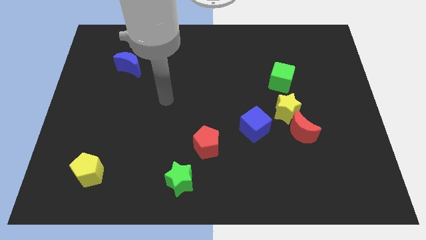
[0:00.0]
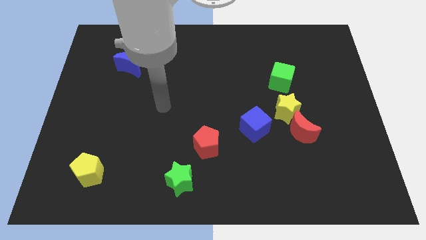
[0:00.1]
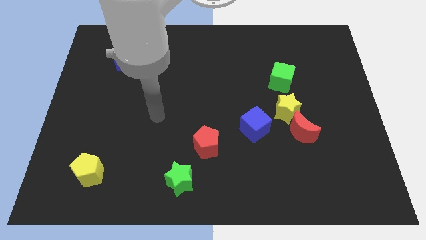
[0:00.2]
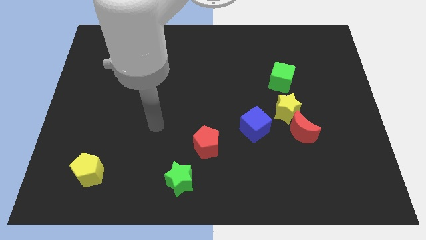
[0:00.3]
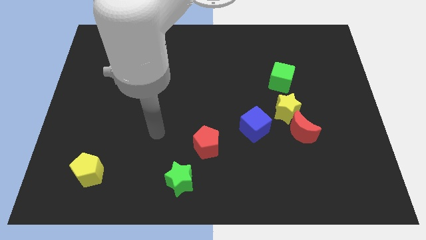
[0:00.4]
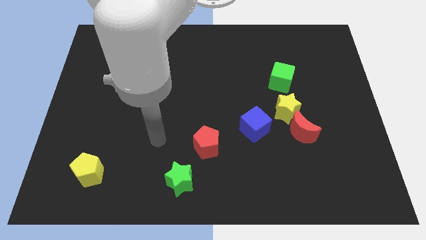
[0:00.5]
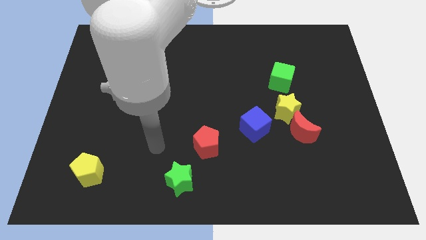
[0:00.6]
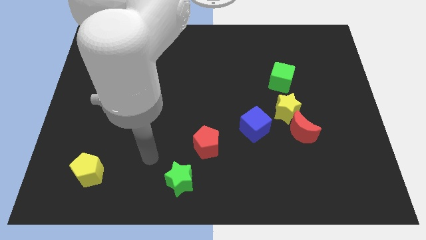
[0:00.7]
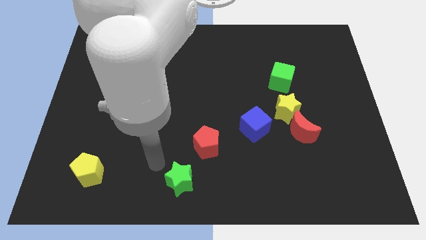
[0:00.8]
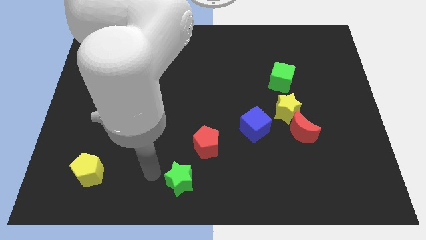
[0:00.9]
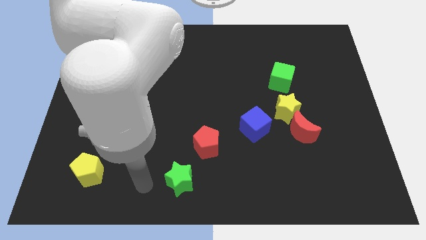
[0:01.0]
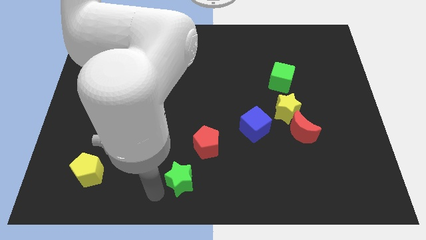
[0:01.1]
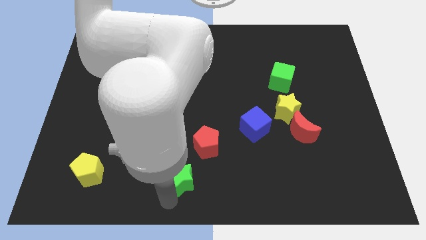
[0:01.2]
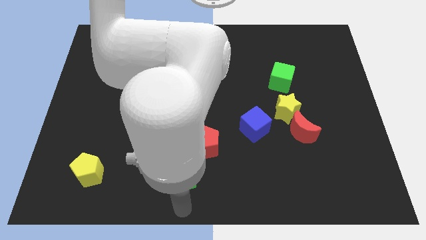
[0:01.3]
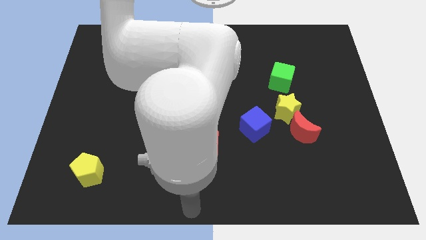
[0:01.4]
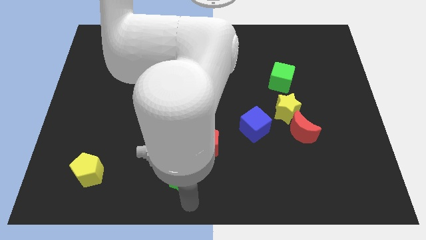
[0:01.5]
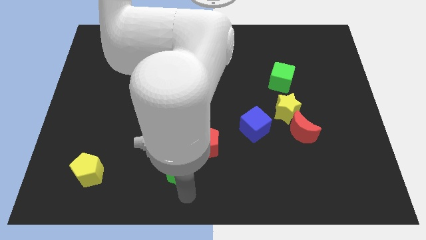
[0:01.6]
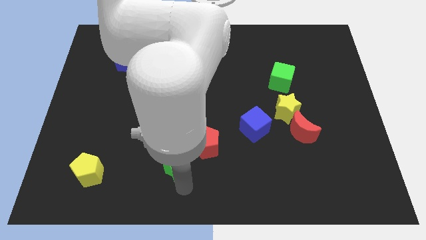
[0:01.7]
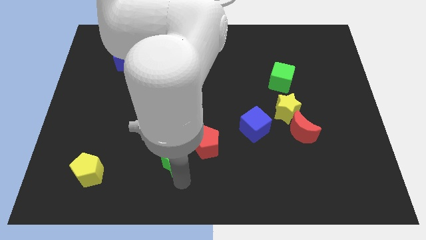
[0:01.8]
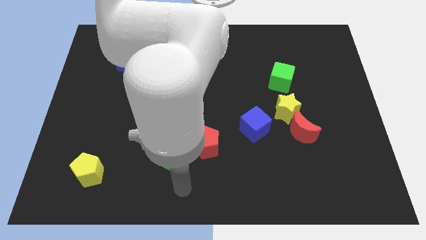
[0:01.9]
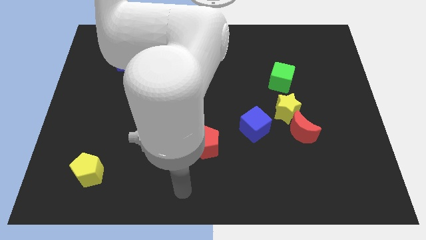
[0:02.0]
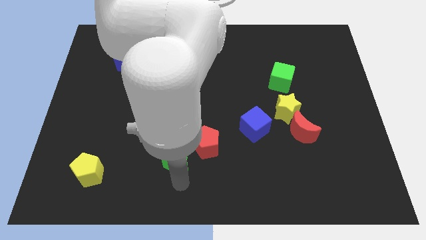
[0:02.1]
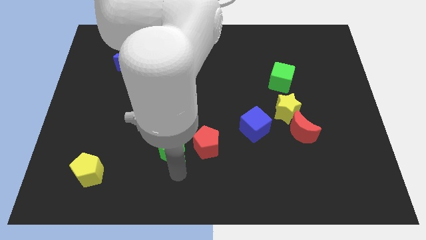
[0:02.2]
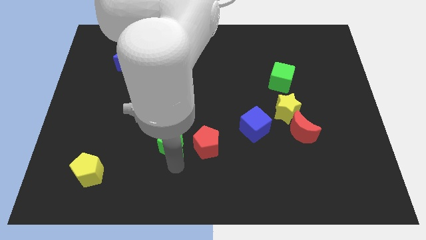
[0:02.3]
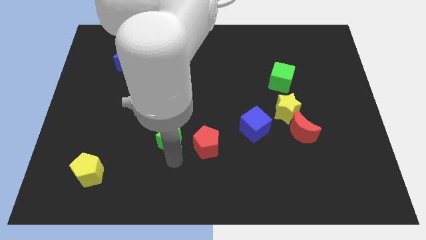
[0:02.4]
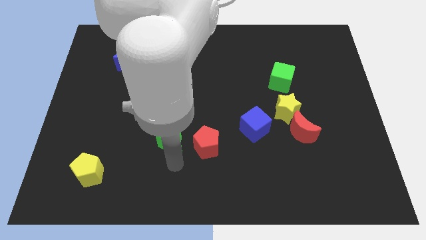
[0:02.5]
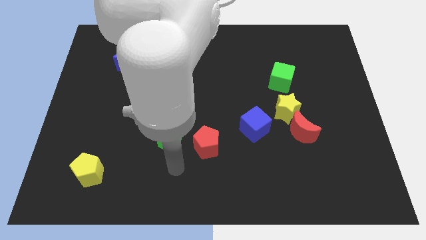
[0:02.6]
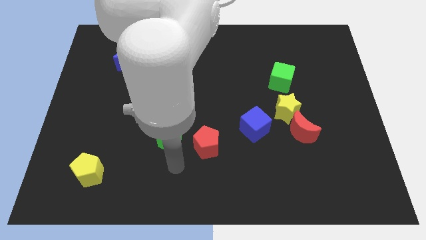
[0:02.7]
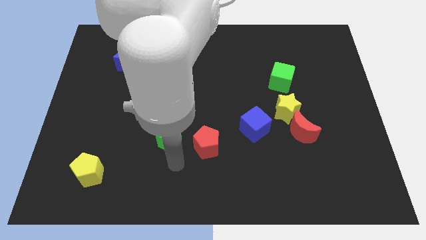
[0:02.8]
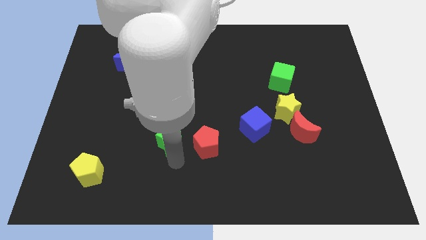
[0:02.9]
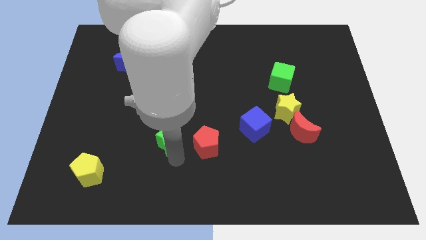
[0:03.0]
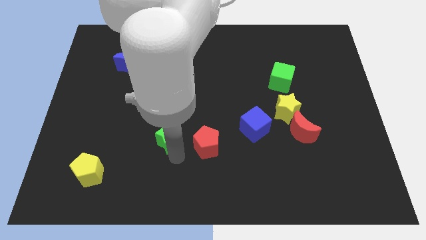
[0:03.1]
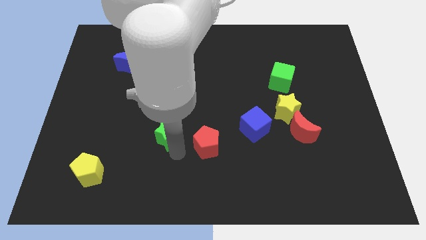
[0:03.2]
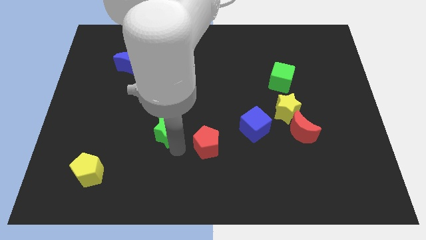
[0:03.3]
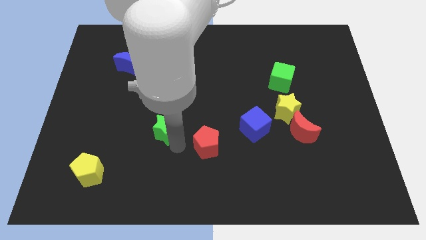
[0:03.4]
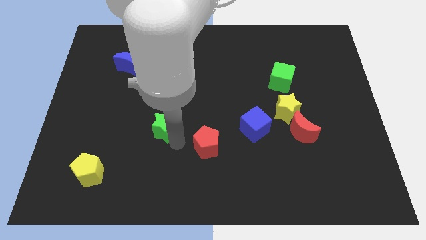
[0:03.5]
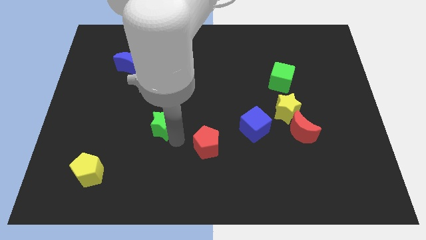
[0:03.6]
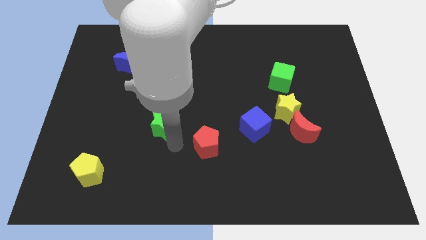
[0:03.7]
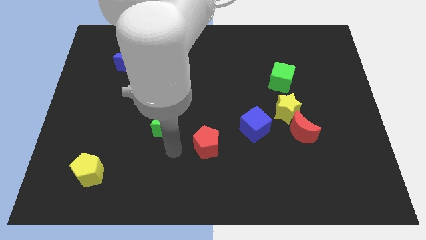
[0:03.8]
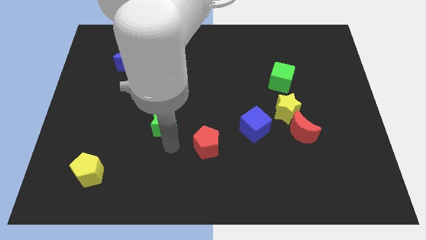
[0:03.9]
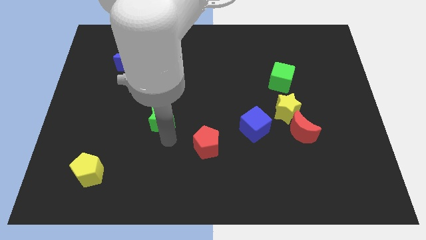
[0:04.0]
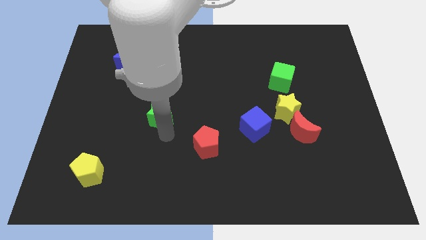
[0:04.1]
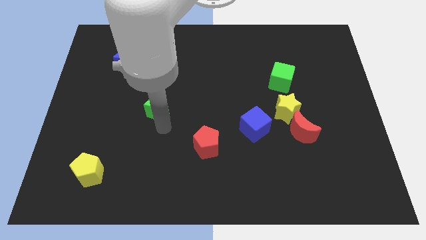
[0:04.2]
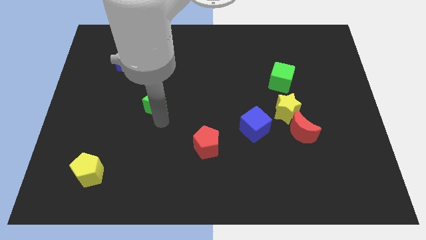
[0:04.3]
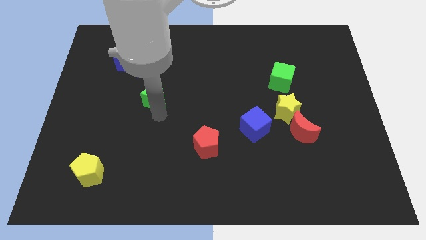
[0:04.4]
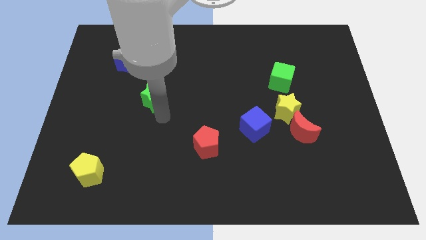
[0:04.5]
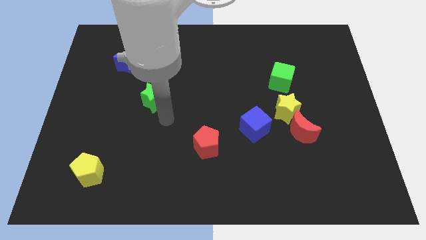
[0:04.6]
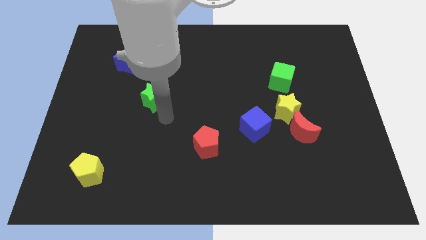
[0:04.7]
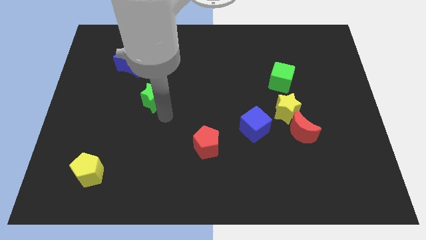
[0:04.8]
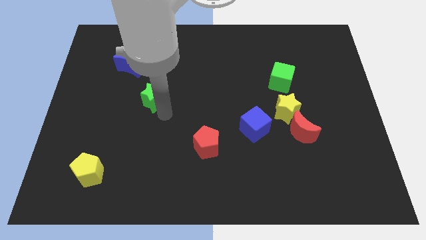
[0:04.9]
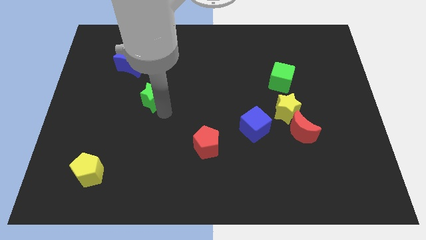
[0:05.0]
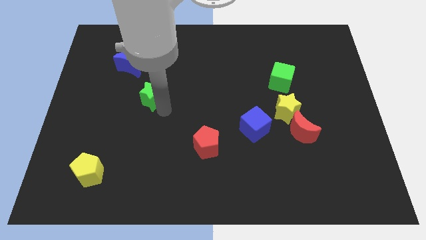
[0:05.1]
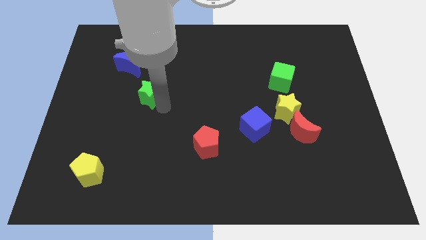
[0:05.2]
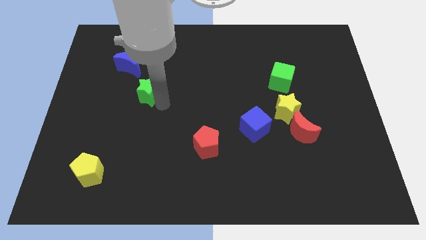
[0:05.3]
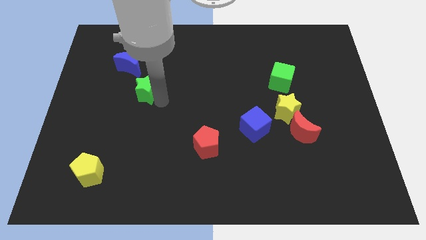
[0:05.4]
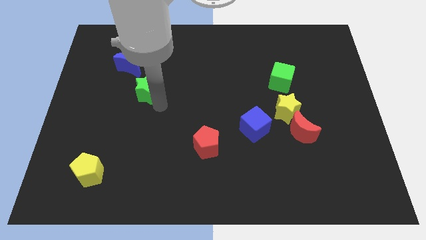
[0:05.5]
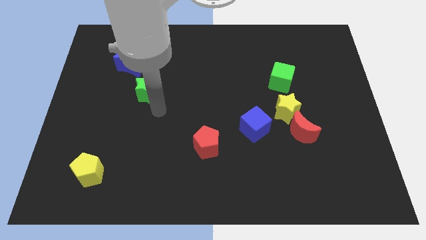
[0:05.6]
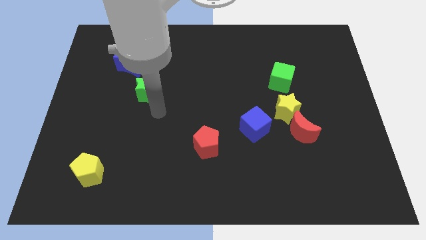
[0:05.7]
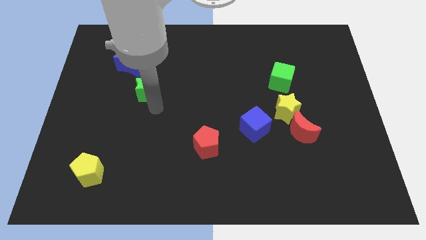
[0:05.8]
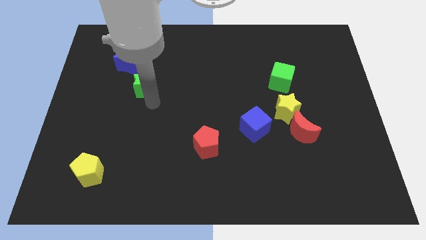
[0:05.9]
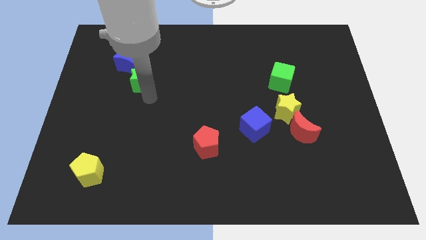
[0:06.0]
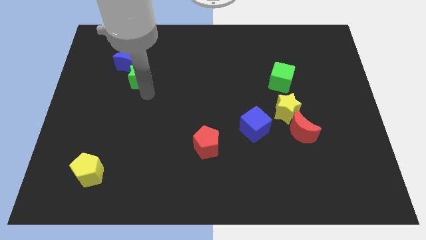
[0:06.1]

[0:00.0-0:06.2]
slide the green star next to the blue moon

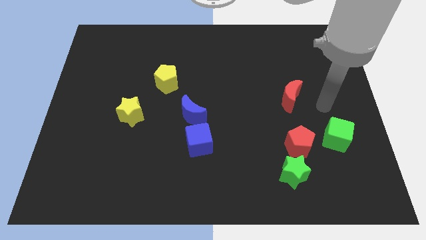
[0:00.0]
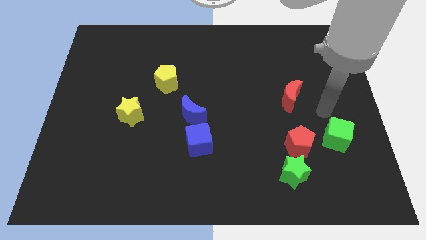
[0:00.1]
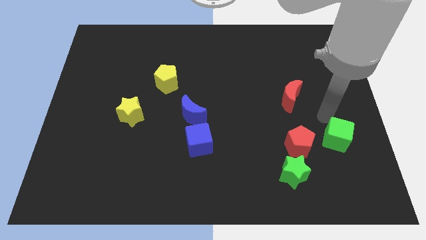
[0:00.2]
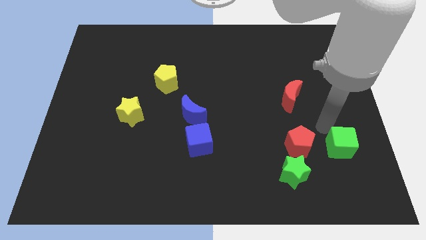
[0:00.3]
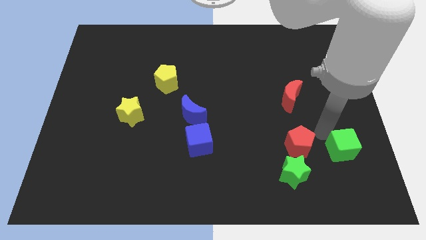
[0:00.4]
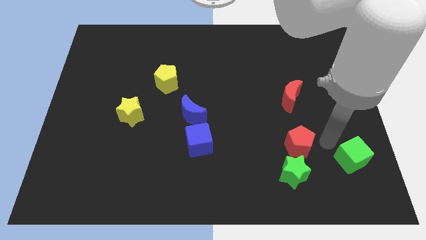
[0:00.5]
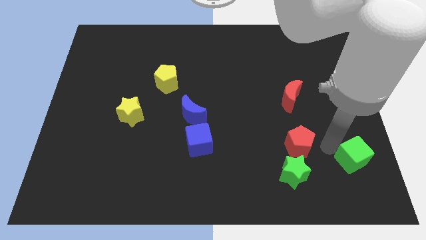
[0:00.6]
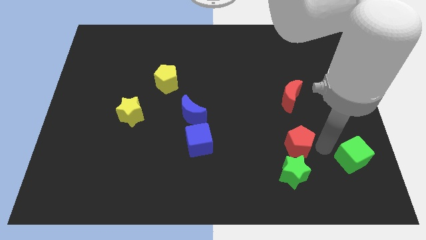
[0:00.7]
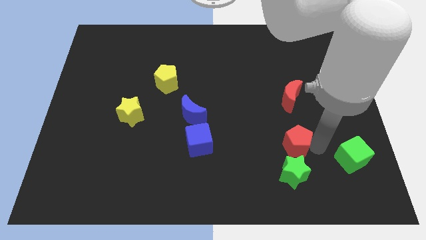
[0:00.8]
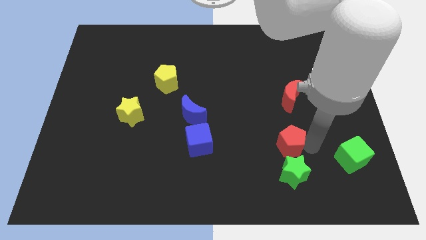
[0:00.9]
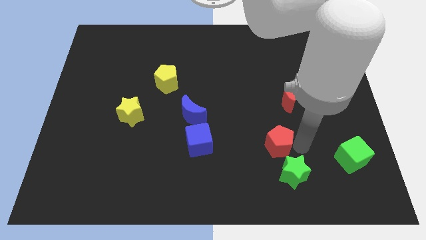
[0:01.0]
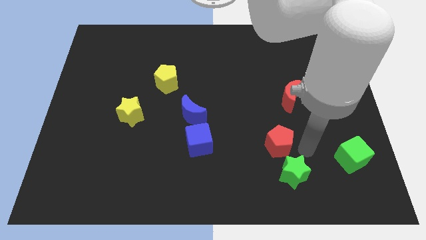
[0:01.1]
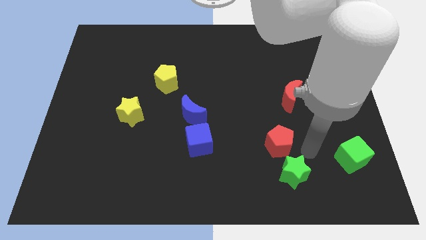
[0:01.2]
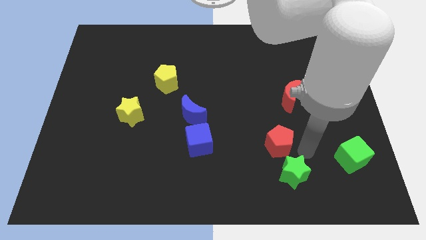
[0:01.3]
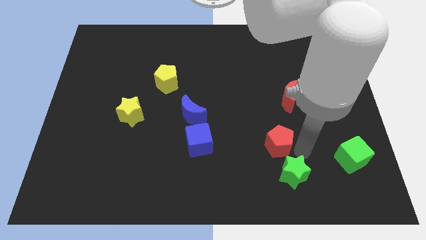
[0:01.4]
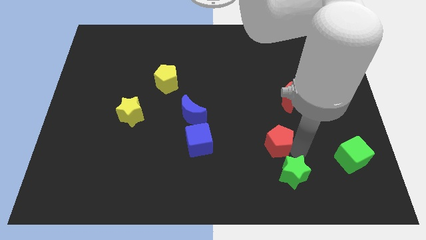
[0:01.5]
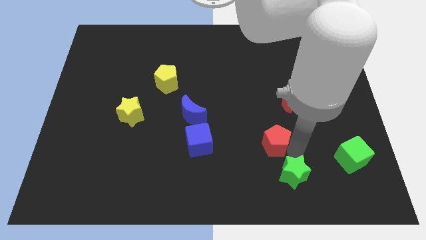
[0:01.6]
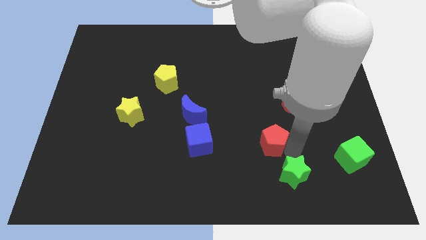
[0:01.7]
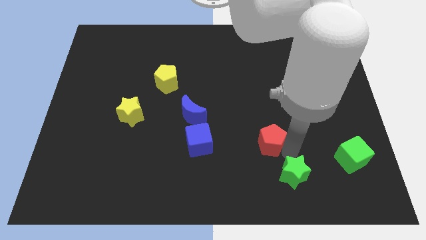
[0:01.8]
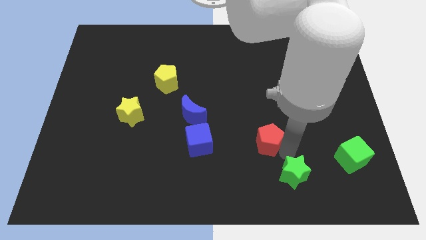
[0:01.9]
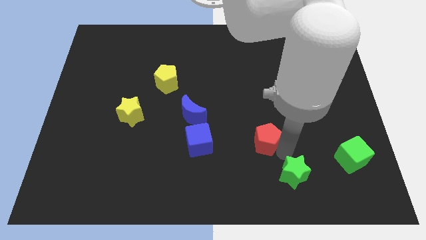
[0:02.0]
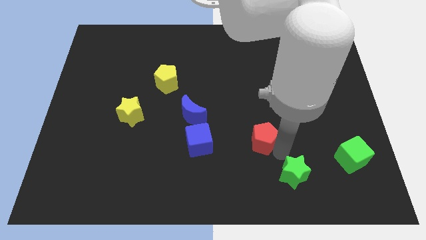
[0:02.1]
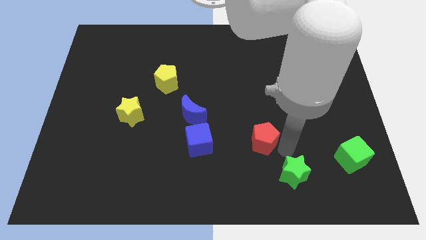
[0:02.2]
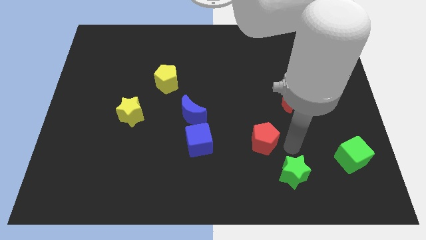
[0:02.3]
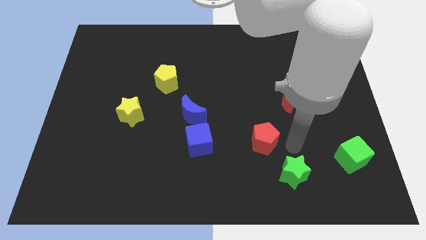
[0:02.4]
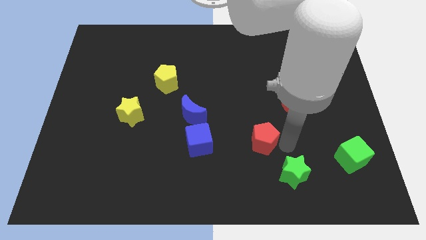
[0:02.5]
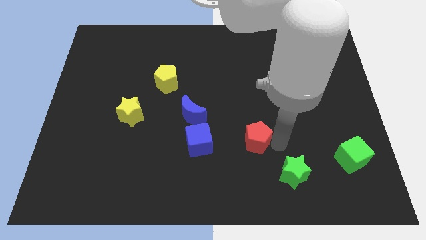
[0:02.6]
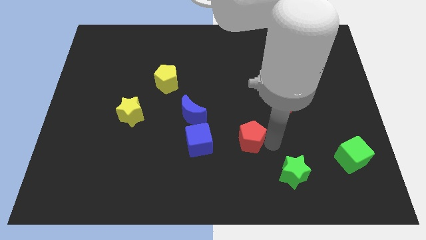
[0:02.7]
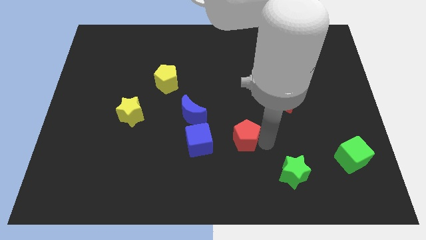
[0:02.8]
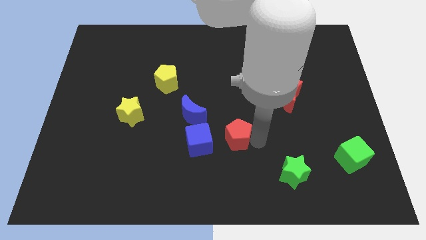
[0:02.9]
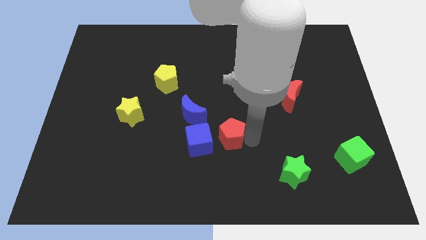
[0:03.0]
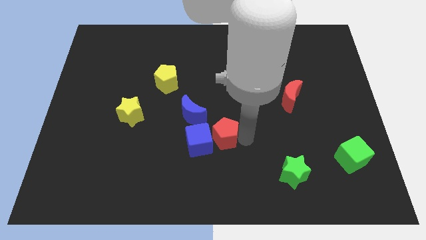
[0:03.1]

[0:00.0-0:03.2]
push the red pentagon towards the blue cube
